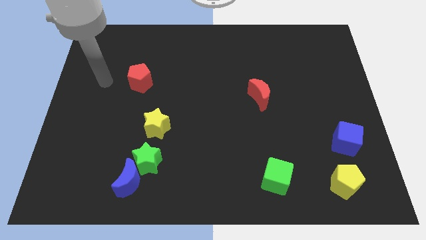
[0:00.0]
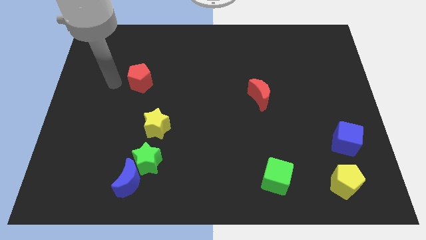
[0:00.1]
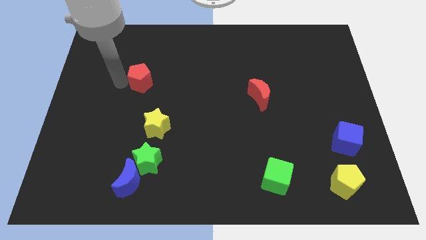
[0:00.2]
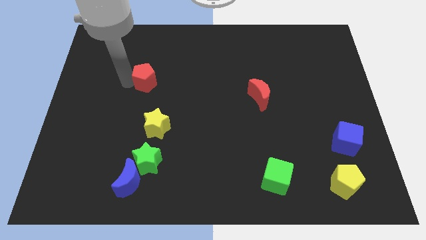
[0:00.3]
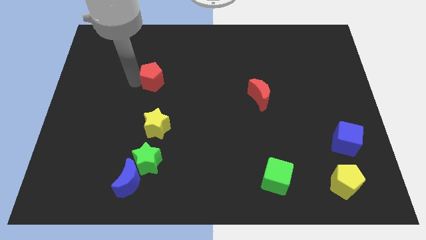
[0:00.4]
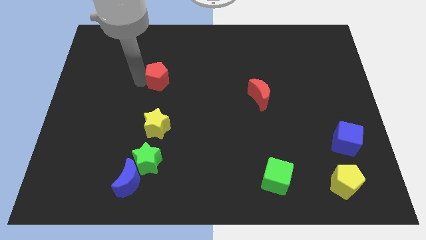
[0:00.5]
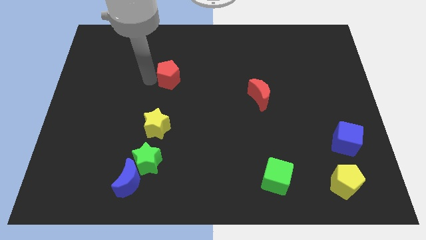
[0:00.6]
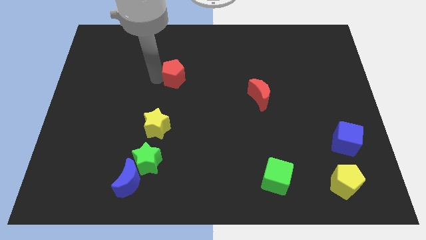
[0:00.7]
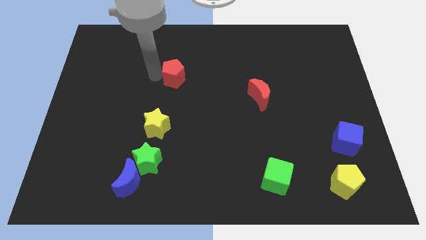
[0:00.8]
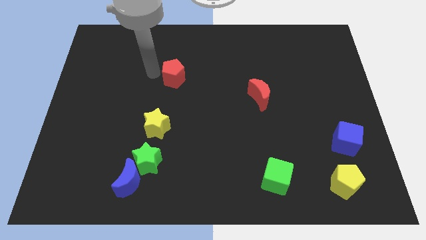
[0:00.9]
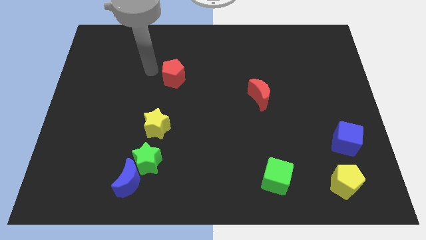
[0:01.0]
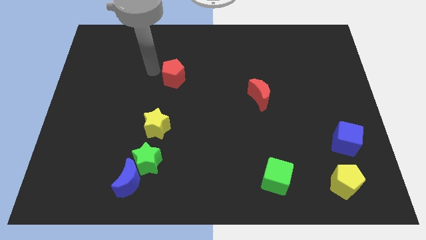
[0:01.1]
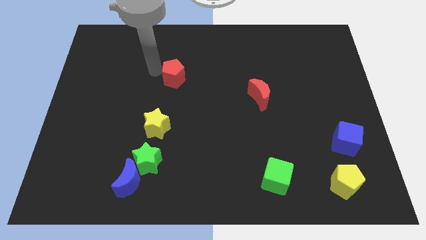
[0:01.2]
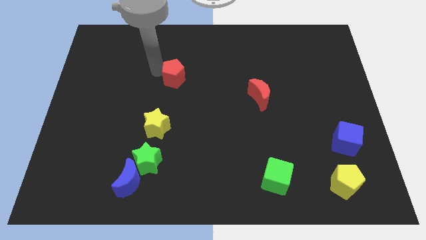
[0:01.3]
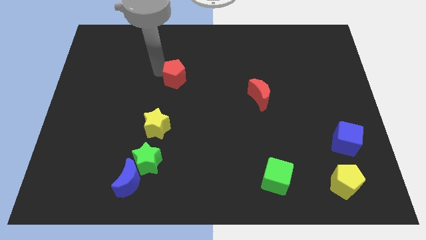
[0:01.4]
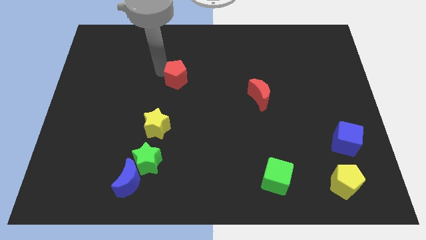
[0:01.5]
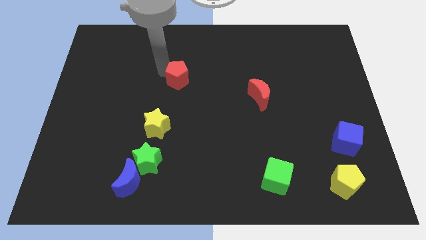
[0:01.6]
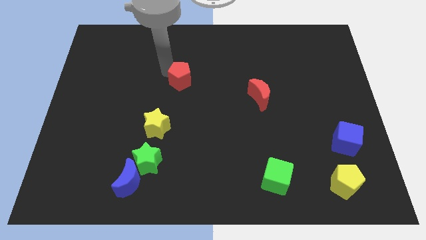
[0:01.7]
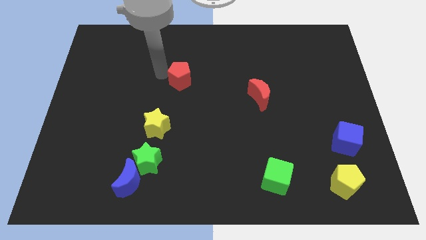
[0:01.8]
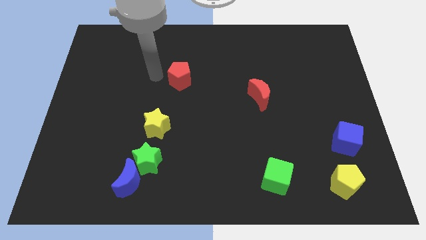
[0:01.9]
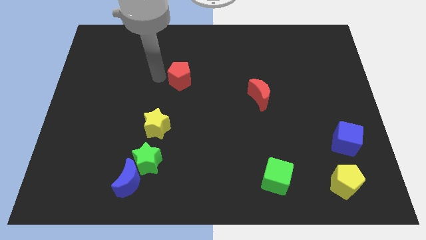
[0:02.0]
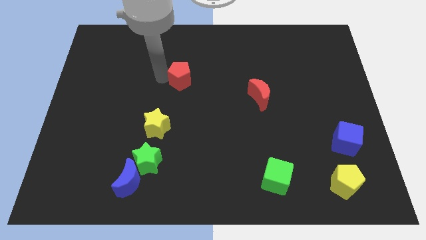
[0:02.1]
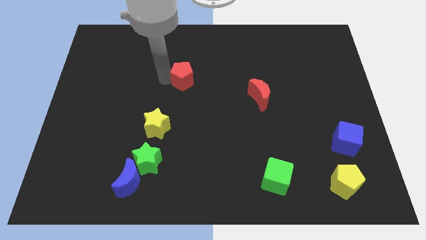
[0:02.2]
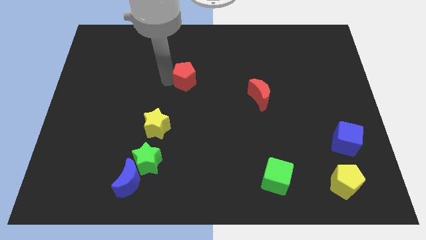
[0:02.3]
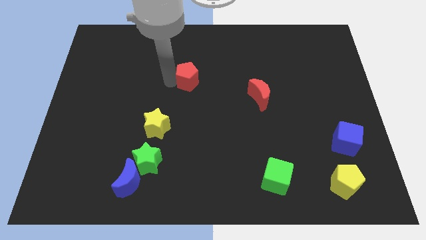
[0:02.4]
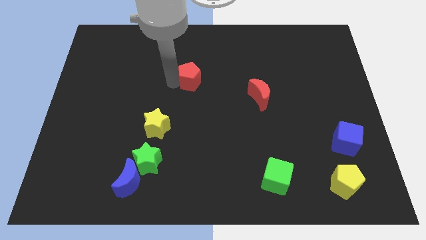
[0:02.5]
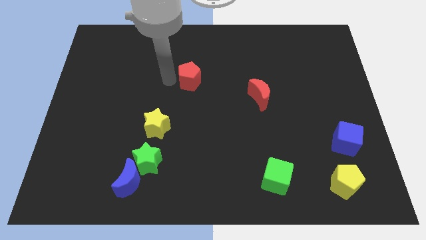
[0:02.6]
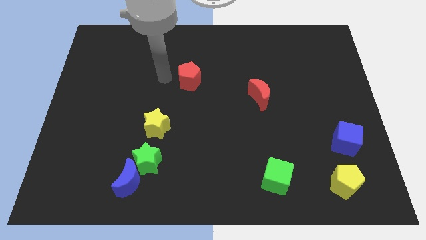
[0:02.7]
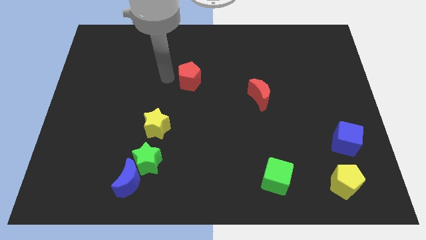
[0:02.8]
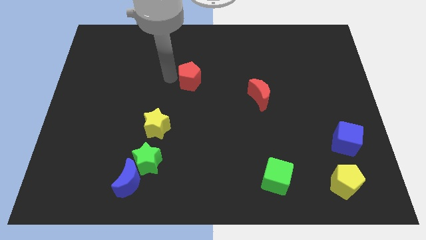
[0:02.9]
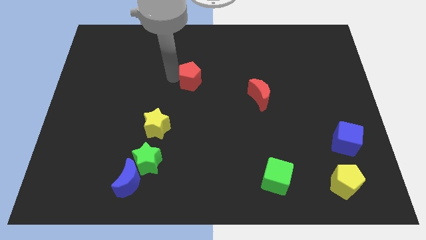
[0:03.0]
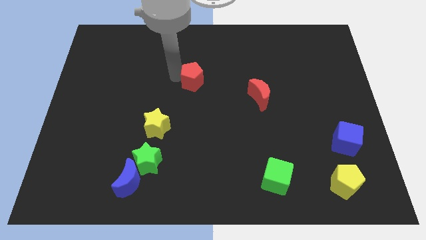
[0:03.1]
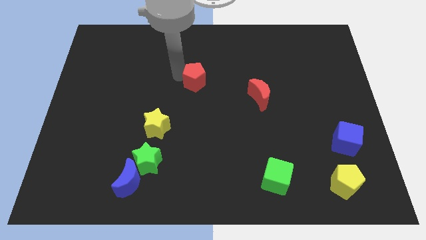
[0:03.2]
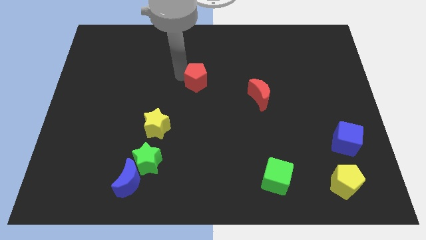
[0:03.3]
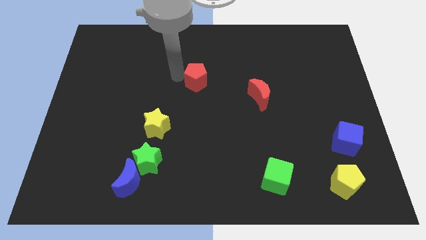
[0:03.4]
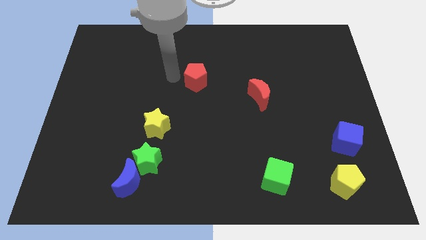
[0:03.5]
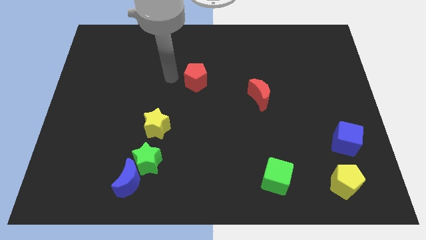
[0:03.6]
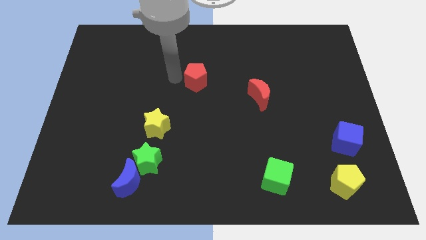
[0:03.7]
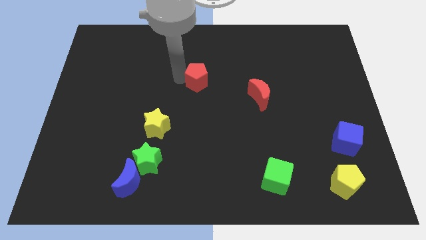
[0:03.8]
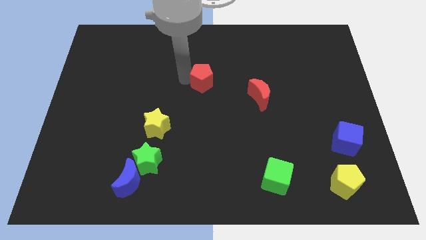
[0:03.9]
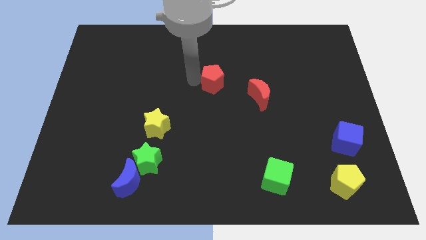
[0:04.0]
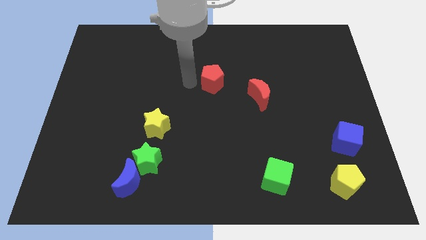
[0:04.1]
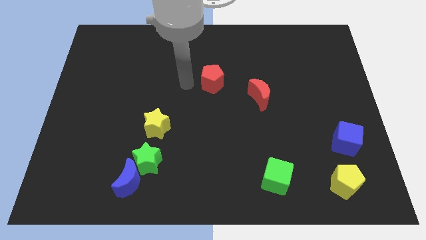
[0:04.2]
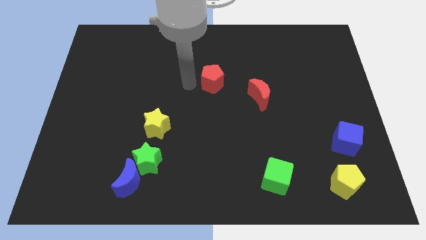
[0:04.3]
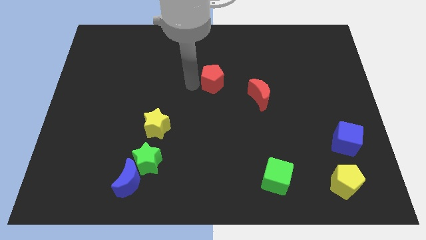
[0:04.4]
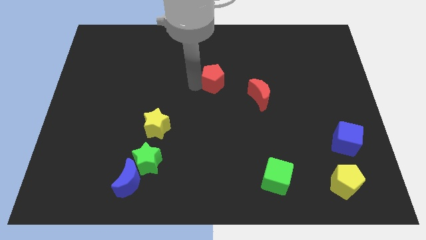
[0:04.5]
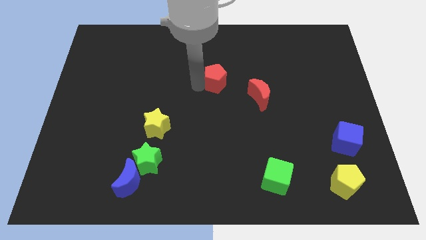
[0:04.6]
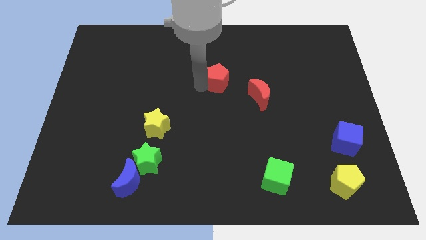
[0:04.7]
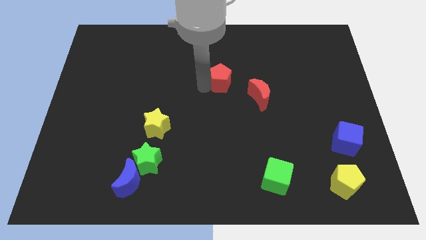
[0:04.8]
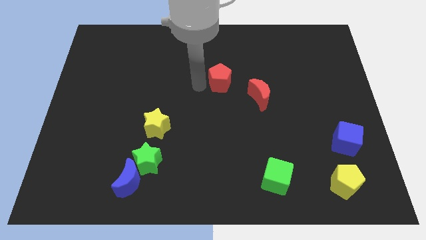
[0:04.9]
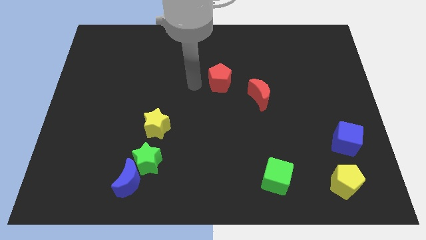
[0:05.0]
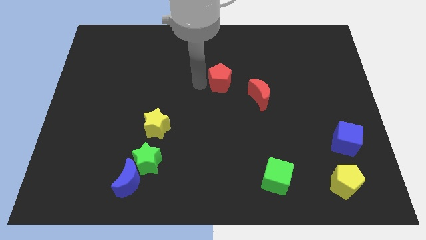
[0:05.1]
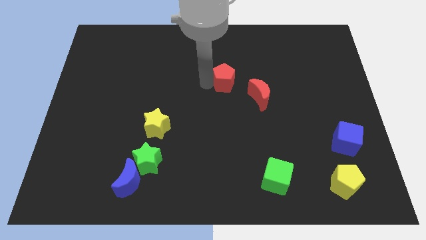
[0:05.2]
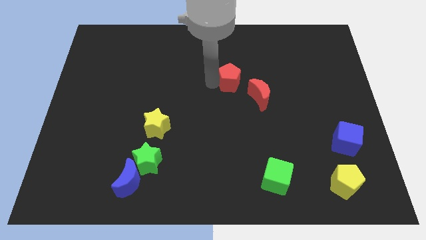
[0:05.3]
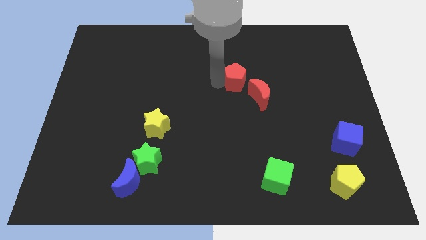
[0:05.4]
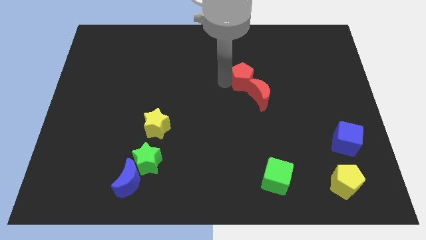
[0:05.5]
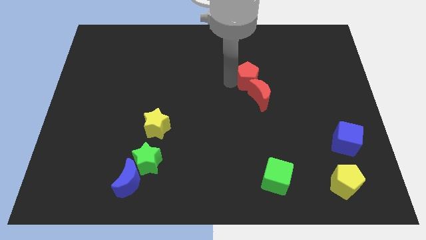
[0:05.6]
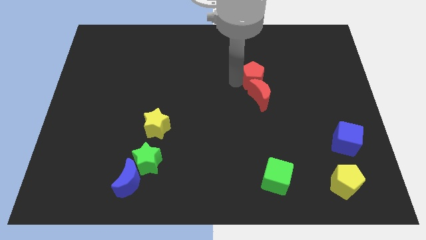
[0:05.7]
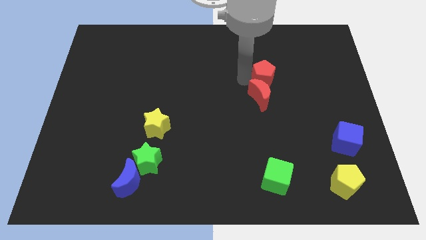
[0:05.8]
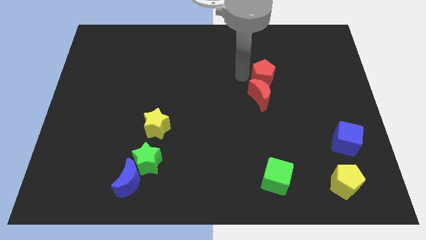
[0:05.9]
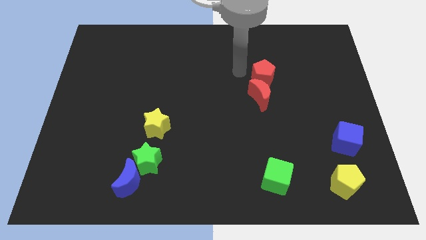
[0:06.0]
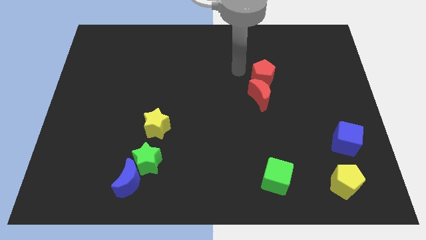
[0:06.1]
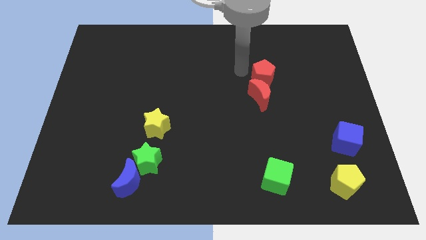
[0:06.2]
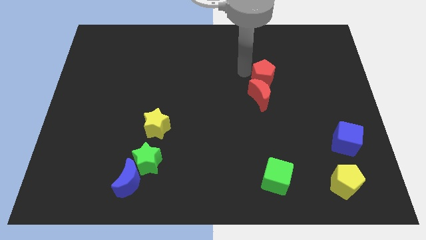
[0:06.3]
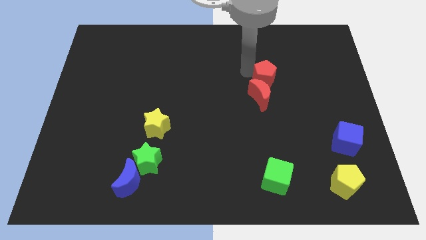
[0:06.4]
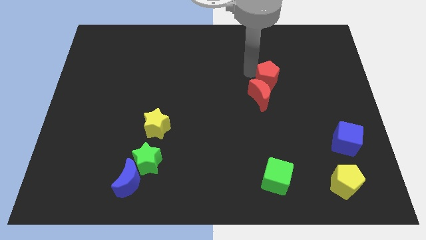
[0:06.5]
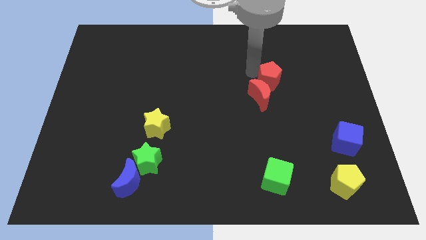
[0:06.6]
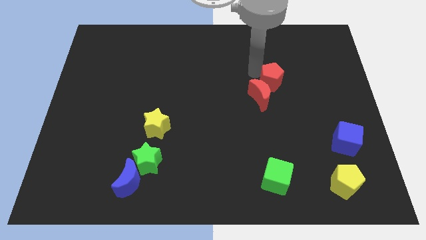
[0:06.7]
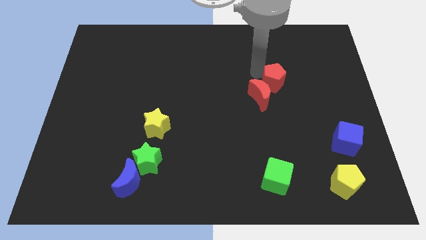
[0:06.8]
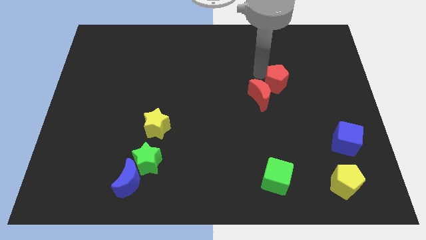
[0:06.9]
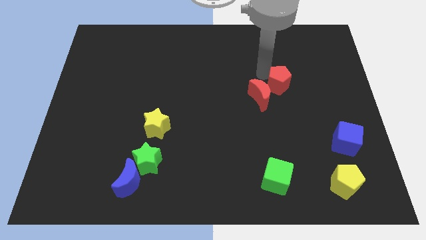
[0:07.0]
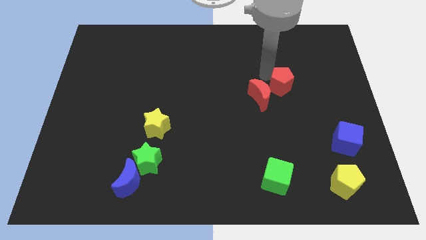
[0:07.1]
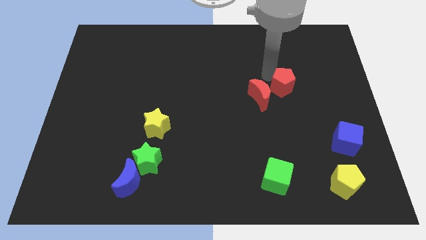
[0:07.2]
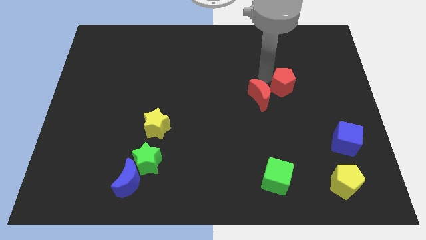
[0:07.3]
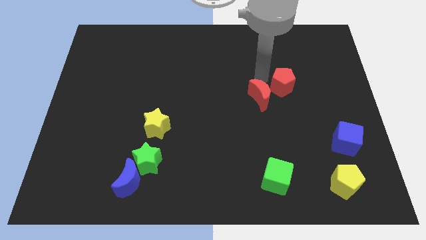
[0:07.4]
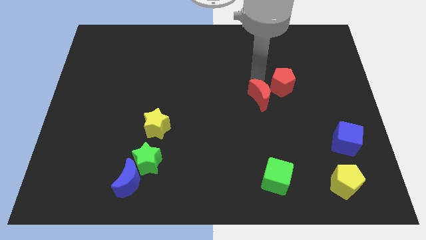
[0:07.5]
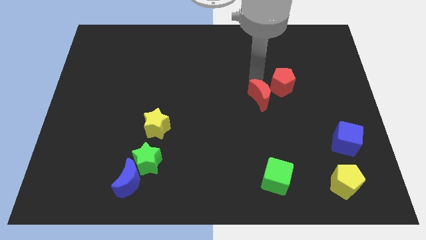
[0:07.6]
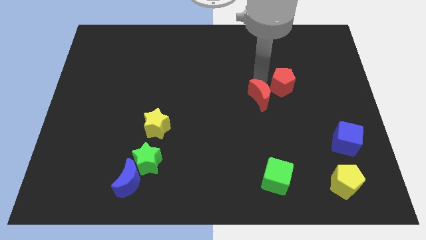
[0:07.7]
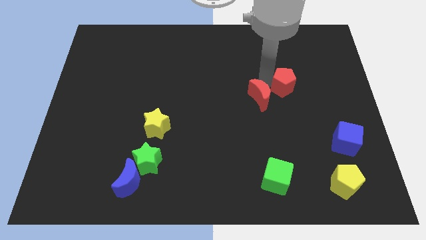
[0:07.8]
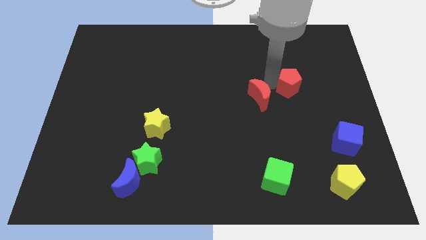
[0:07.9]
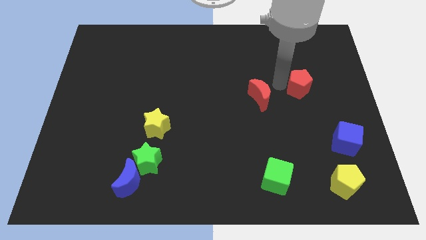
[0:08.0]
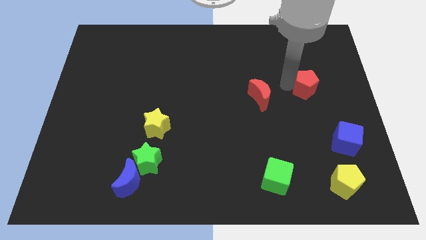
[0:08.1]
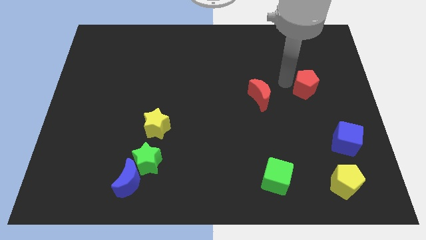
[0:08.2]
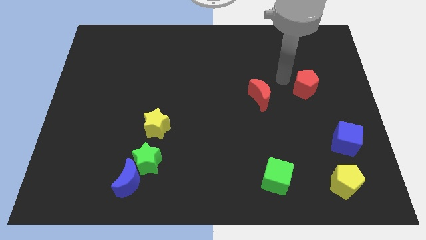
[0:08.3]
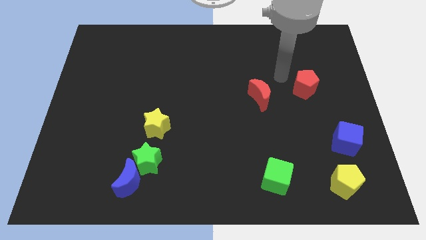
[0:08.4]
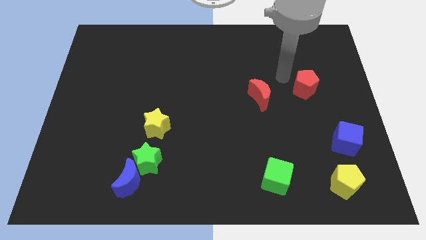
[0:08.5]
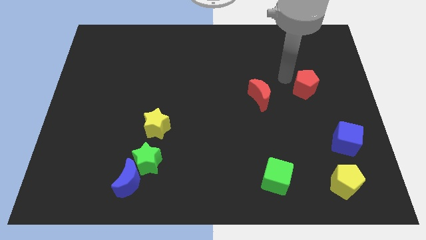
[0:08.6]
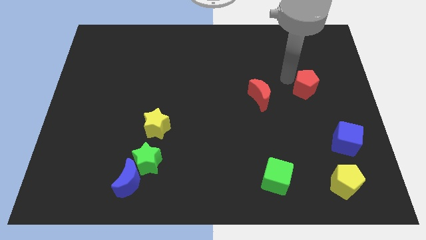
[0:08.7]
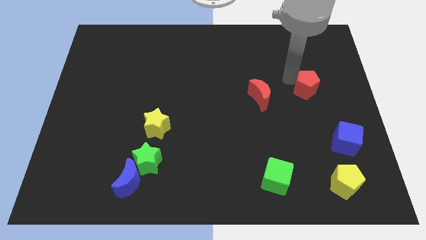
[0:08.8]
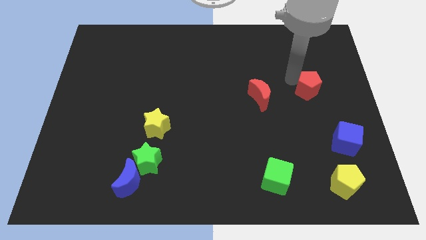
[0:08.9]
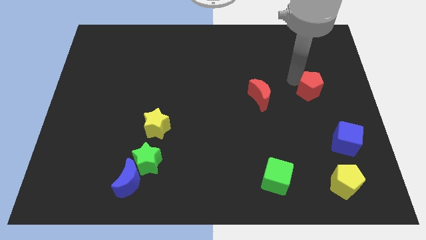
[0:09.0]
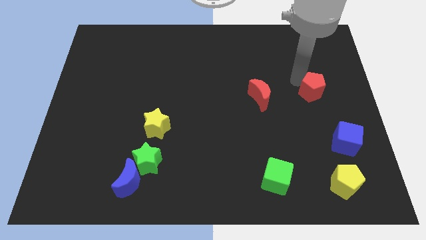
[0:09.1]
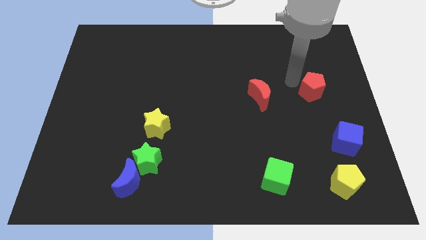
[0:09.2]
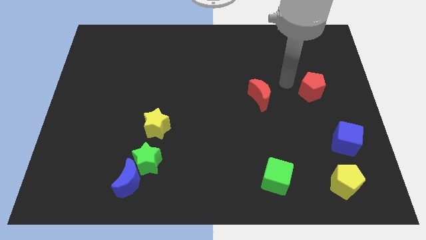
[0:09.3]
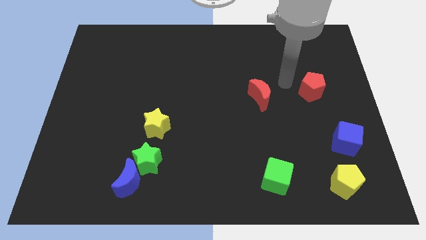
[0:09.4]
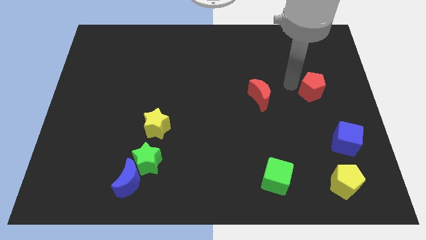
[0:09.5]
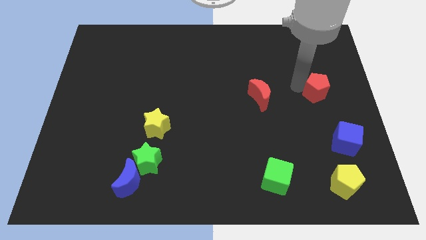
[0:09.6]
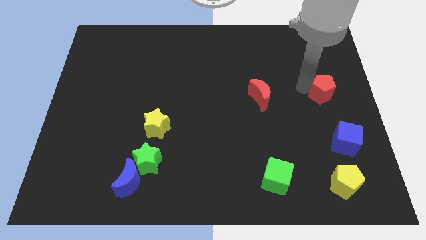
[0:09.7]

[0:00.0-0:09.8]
put the red pentagon to the right side
